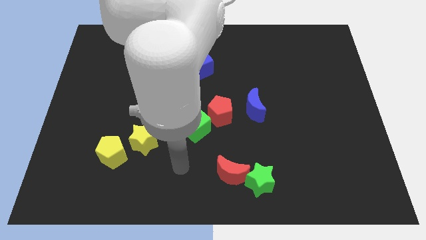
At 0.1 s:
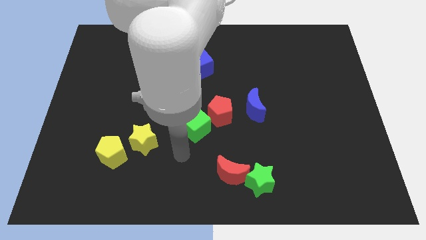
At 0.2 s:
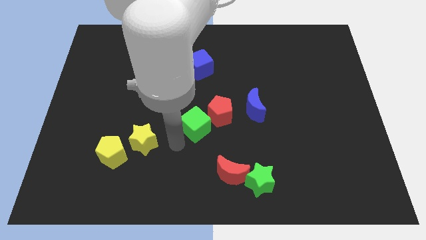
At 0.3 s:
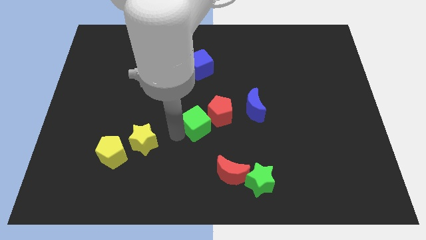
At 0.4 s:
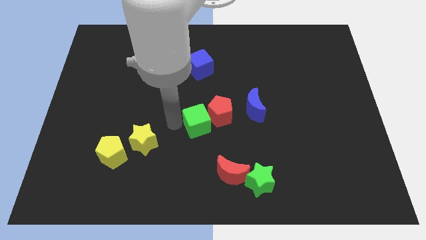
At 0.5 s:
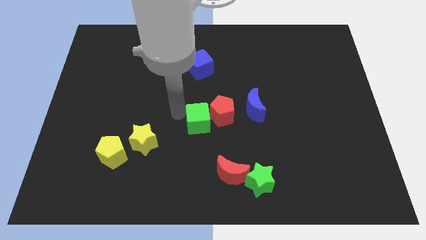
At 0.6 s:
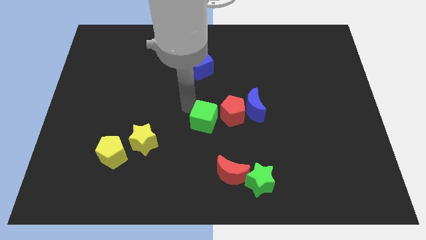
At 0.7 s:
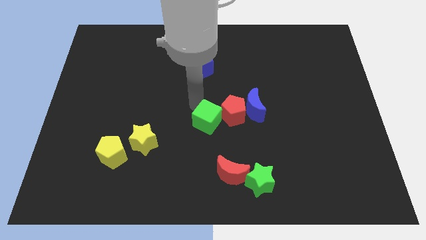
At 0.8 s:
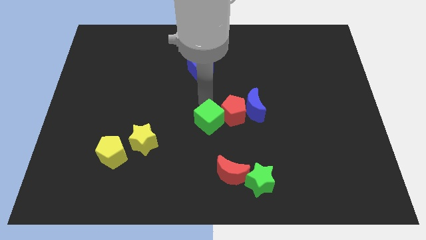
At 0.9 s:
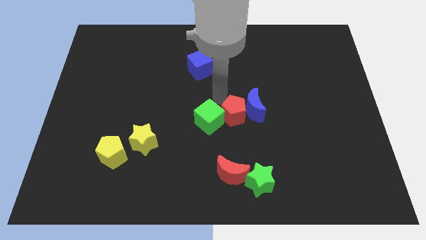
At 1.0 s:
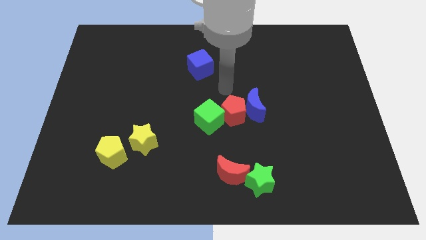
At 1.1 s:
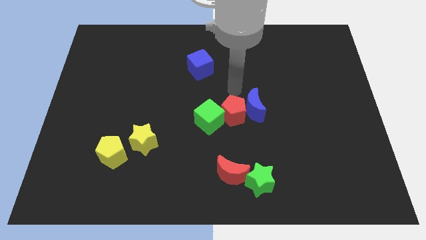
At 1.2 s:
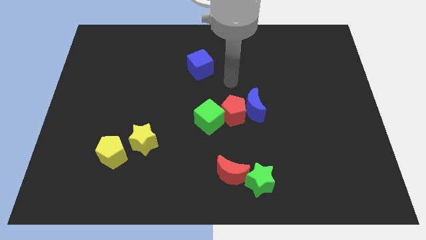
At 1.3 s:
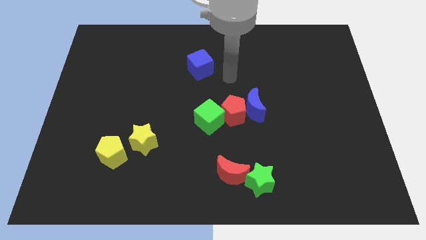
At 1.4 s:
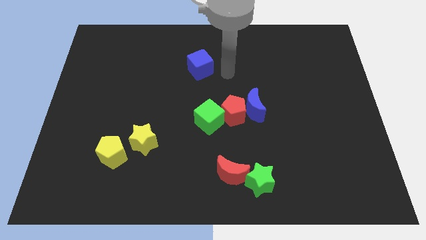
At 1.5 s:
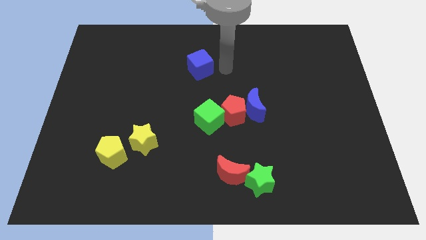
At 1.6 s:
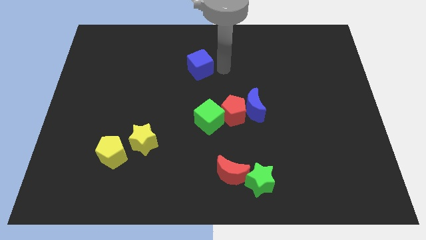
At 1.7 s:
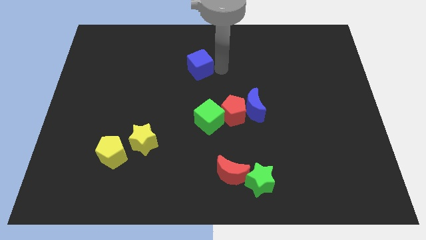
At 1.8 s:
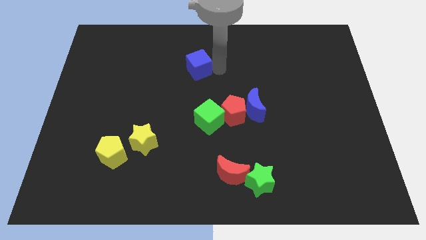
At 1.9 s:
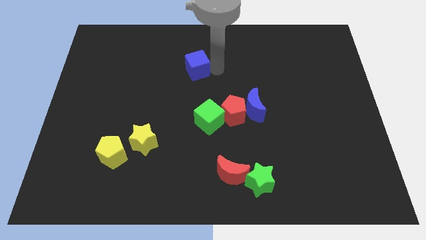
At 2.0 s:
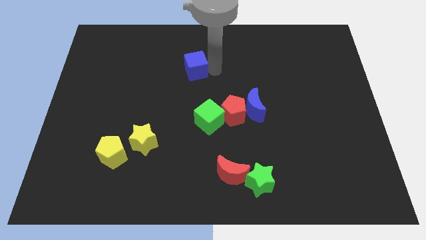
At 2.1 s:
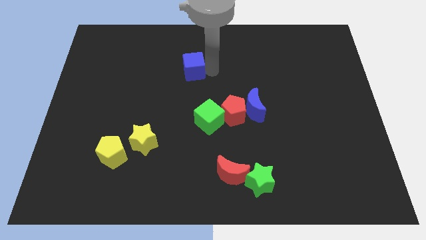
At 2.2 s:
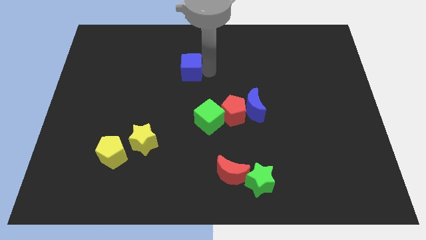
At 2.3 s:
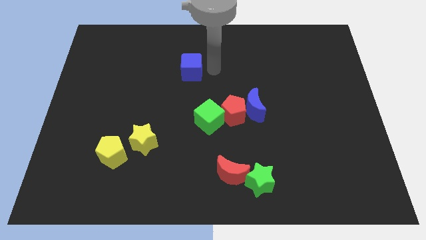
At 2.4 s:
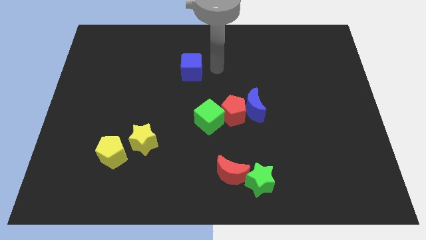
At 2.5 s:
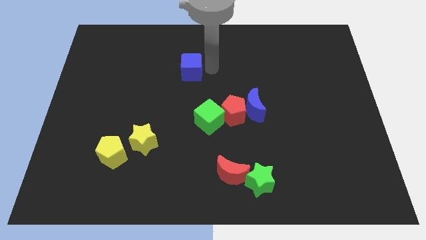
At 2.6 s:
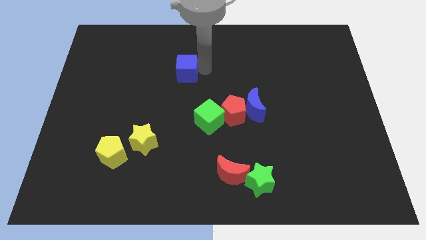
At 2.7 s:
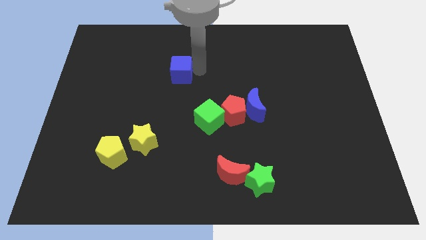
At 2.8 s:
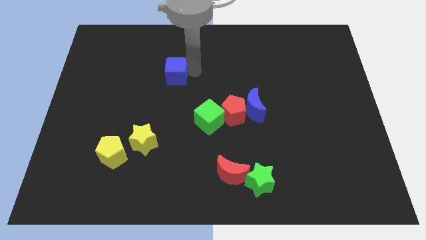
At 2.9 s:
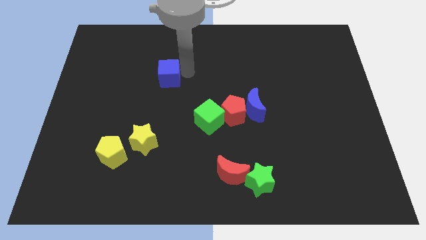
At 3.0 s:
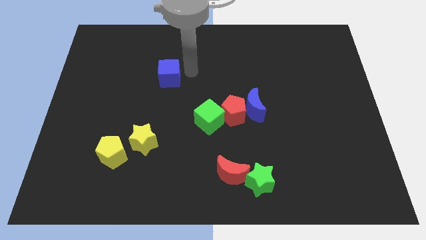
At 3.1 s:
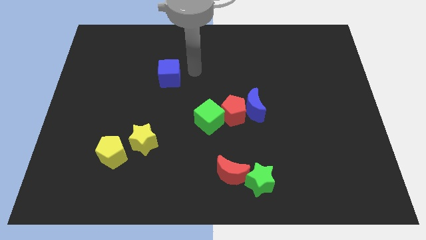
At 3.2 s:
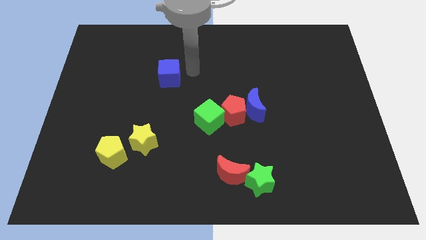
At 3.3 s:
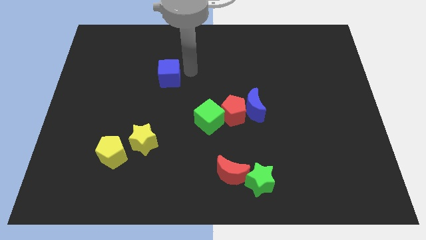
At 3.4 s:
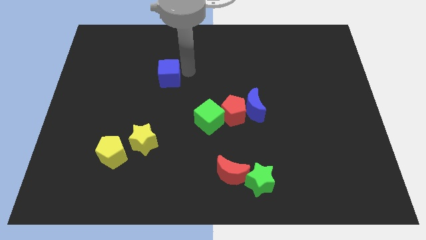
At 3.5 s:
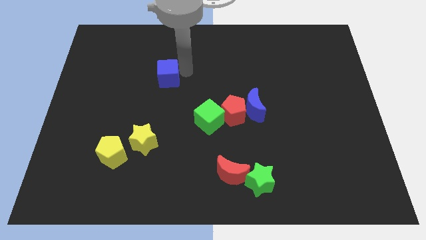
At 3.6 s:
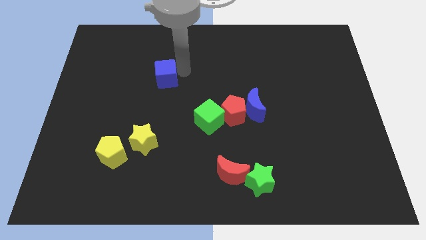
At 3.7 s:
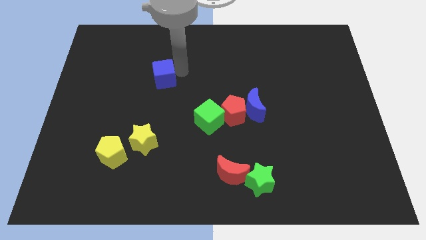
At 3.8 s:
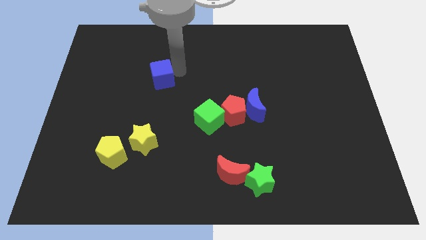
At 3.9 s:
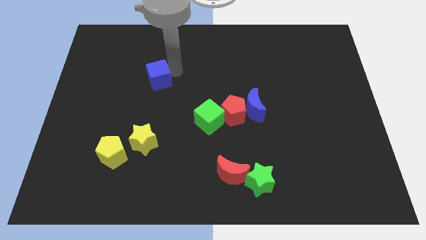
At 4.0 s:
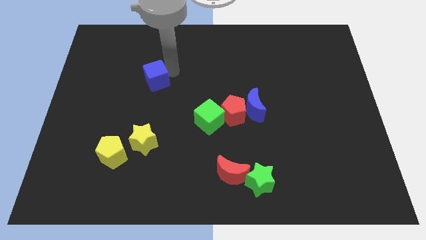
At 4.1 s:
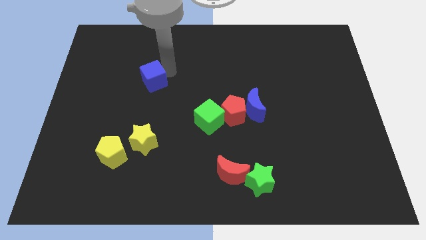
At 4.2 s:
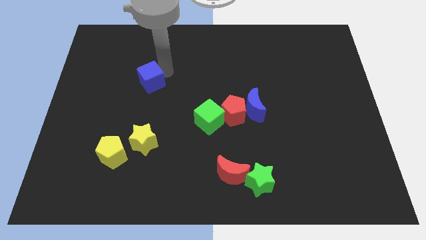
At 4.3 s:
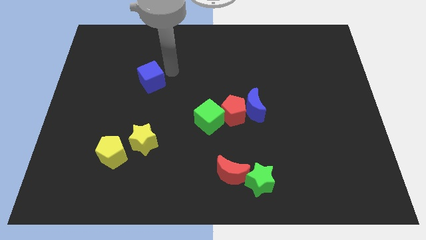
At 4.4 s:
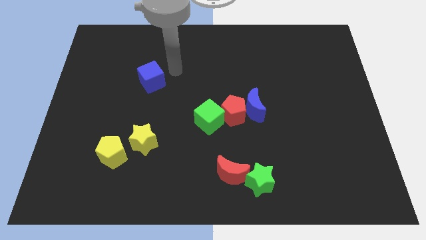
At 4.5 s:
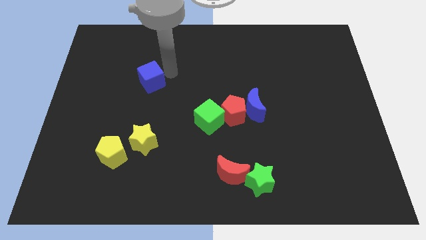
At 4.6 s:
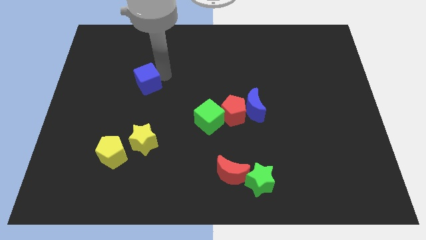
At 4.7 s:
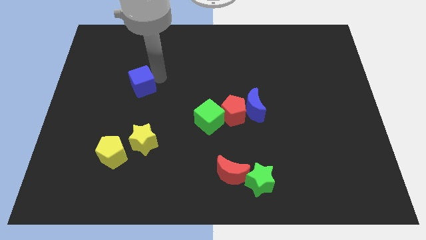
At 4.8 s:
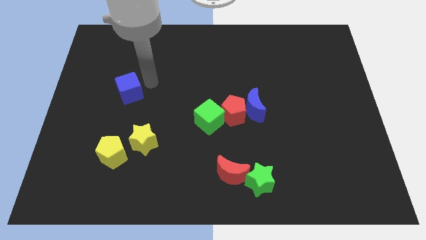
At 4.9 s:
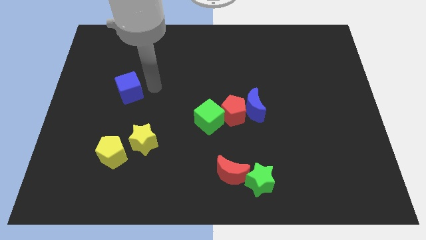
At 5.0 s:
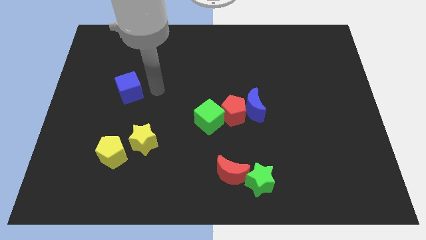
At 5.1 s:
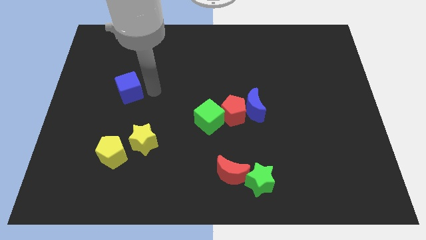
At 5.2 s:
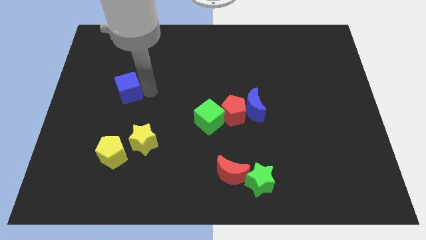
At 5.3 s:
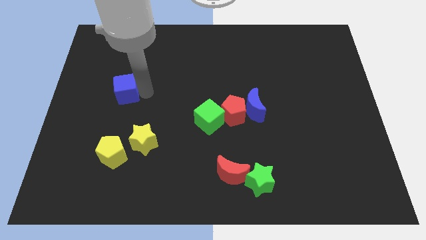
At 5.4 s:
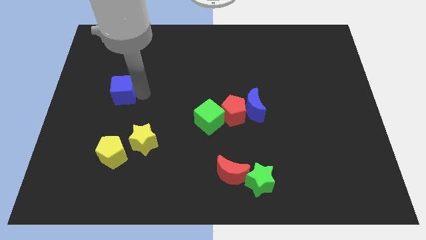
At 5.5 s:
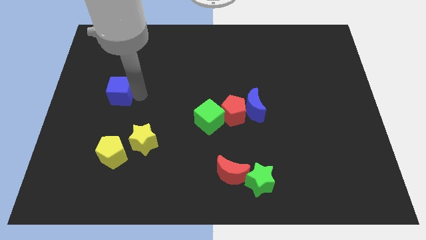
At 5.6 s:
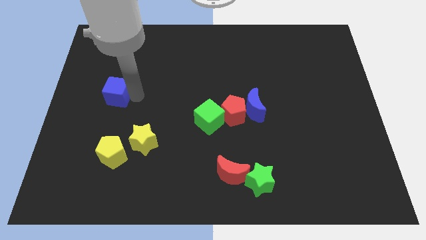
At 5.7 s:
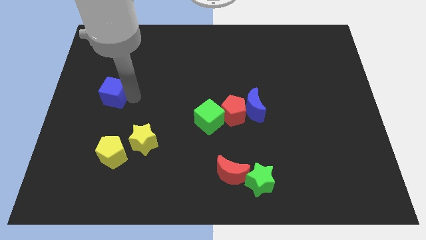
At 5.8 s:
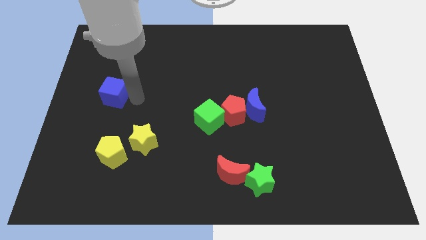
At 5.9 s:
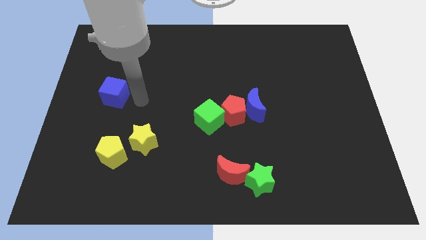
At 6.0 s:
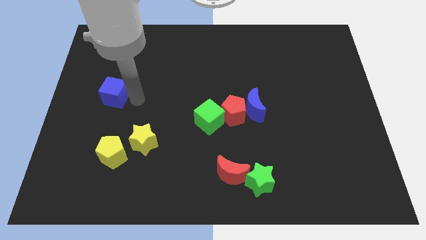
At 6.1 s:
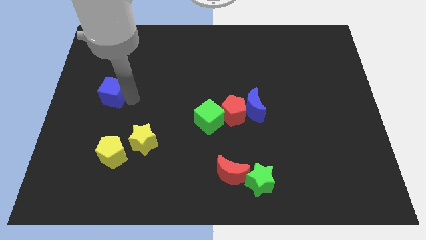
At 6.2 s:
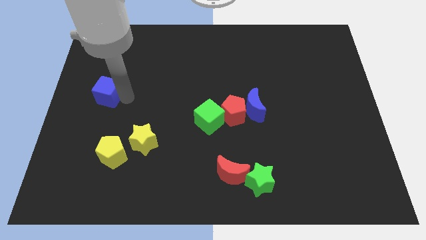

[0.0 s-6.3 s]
move the blue cube to the center left
